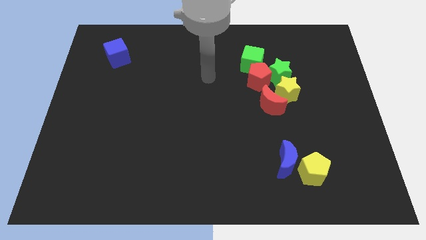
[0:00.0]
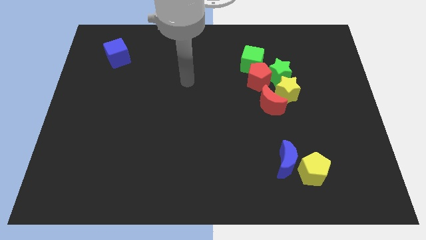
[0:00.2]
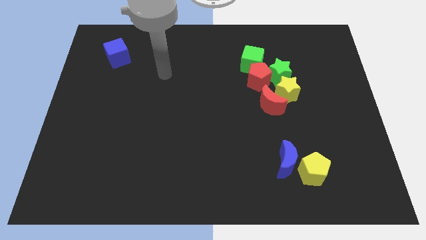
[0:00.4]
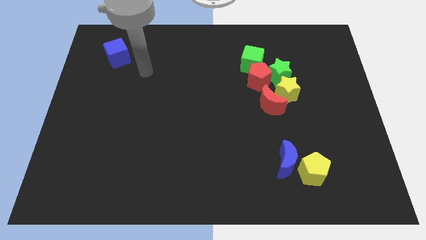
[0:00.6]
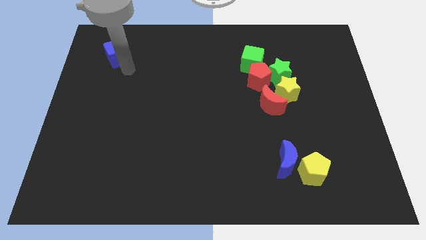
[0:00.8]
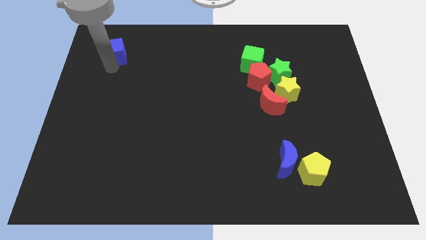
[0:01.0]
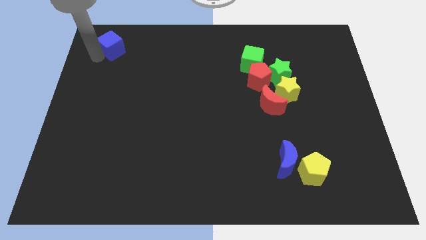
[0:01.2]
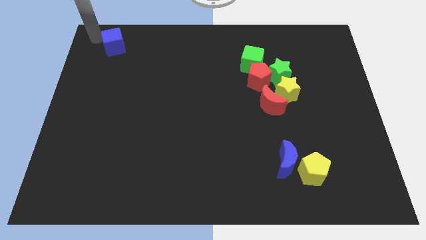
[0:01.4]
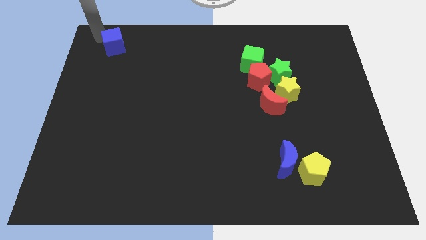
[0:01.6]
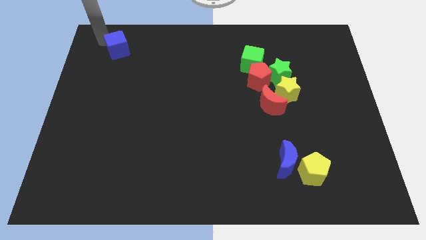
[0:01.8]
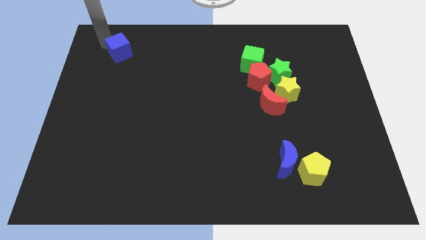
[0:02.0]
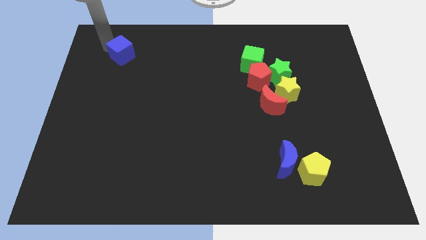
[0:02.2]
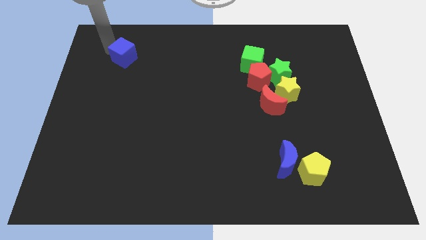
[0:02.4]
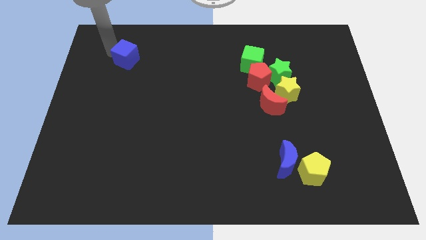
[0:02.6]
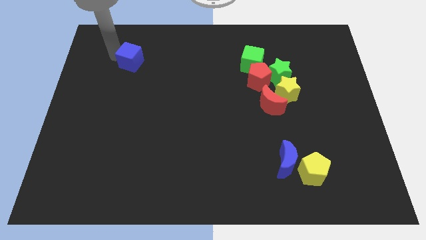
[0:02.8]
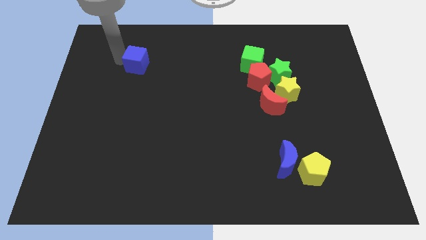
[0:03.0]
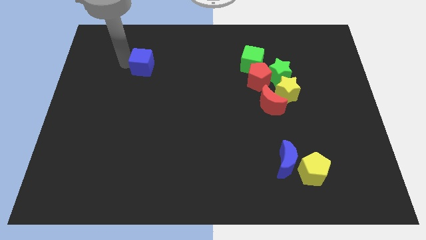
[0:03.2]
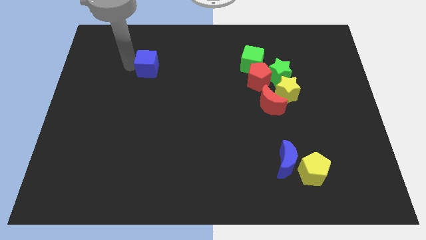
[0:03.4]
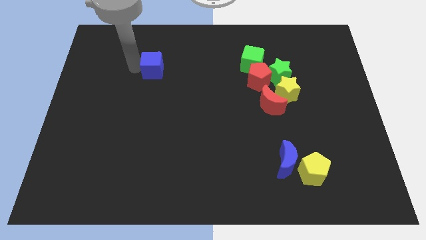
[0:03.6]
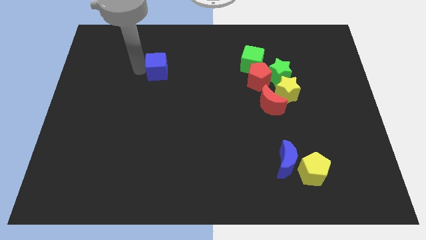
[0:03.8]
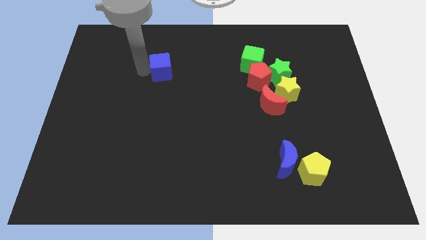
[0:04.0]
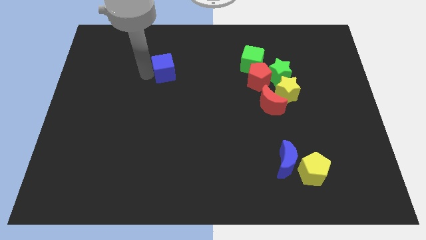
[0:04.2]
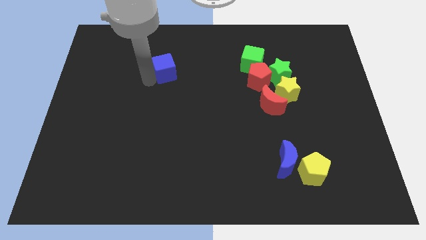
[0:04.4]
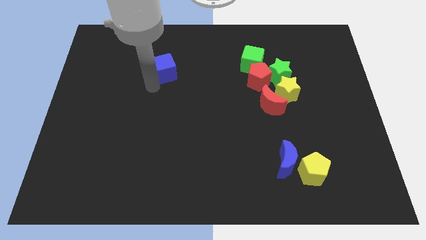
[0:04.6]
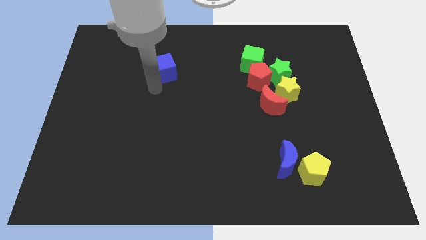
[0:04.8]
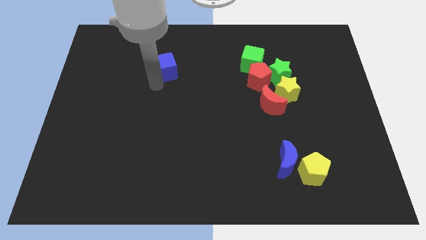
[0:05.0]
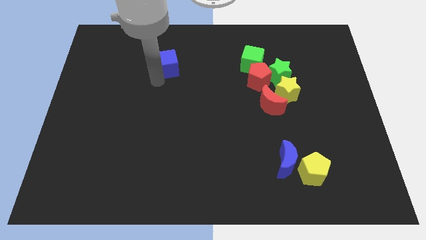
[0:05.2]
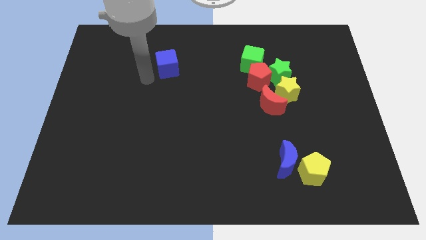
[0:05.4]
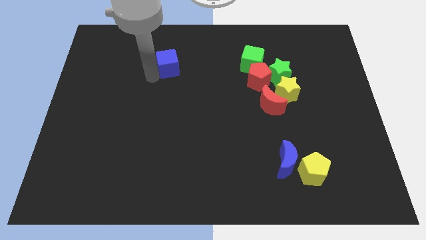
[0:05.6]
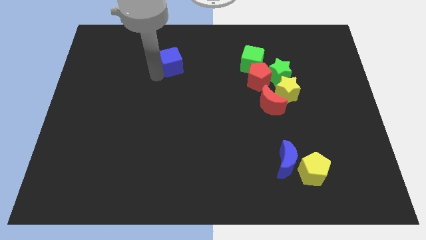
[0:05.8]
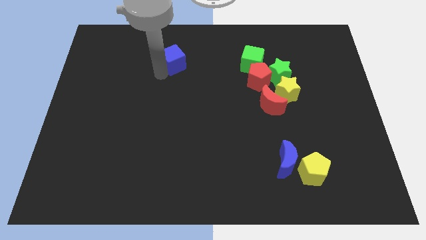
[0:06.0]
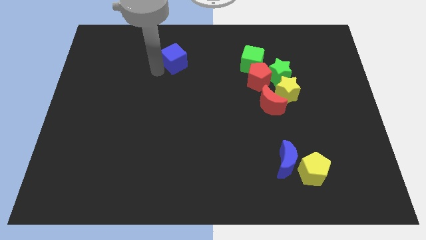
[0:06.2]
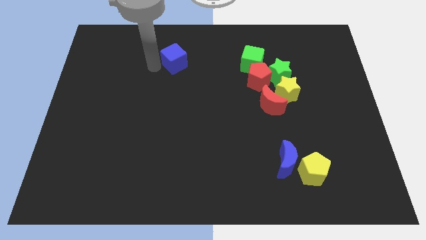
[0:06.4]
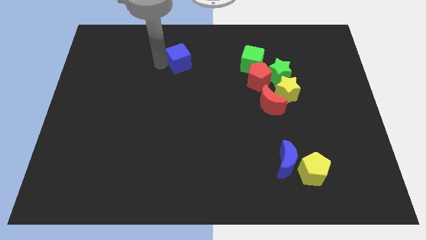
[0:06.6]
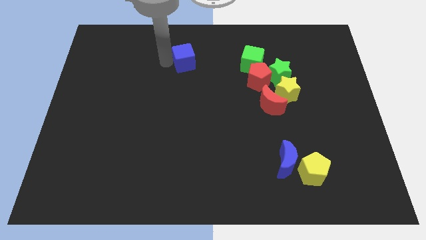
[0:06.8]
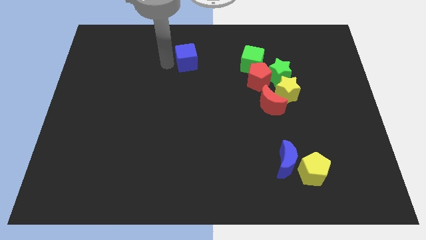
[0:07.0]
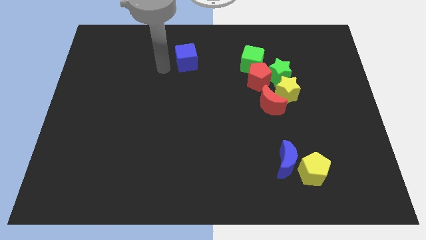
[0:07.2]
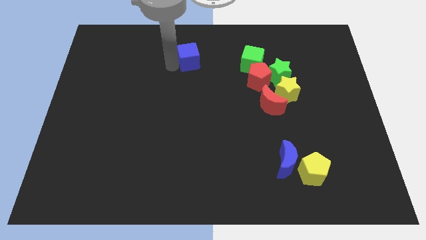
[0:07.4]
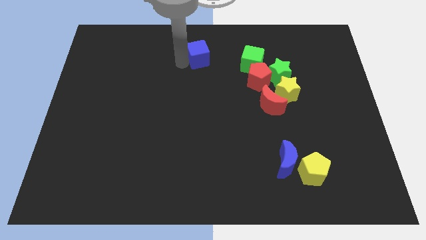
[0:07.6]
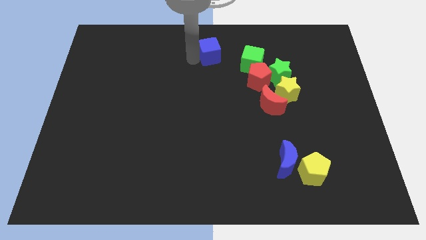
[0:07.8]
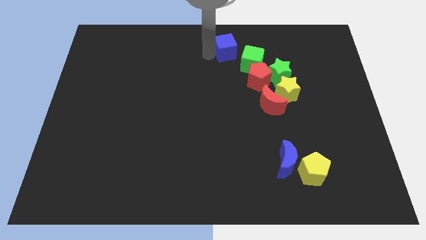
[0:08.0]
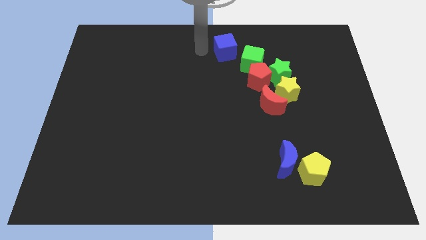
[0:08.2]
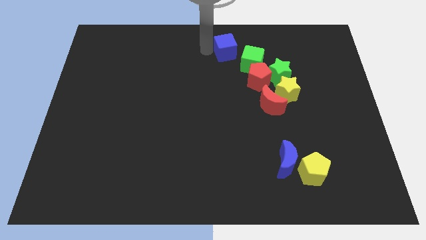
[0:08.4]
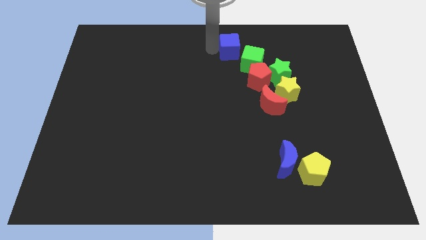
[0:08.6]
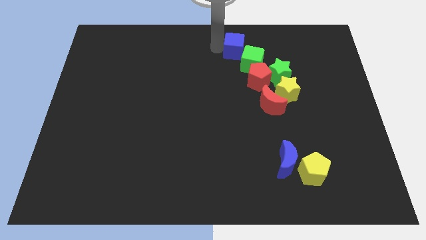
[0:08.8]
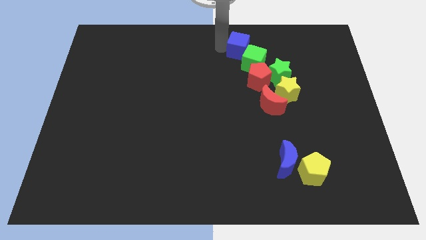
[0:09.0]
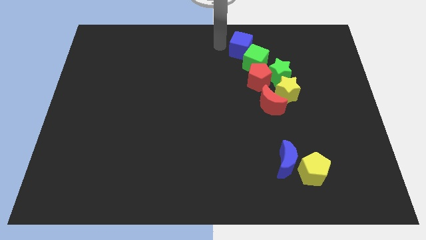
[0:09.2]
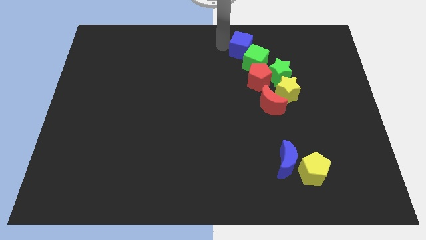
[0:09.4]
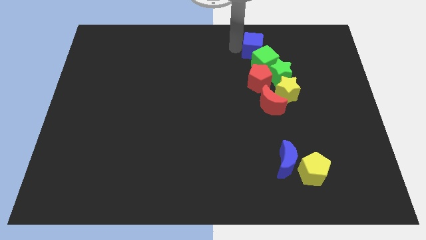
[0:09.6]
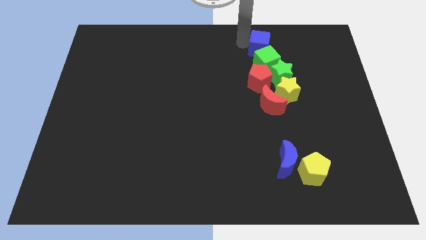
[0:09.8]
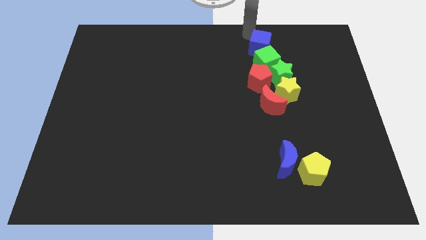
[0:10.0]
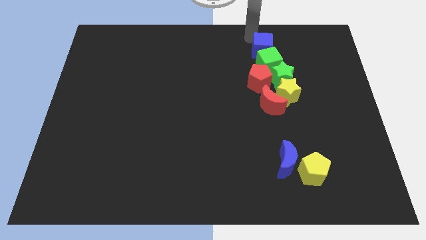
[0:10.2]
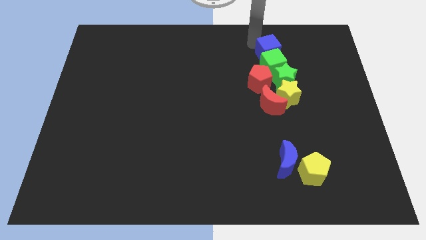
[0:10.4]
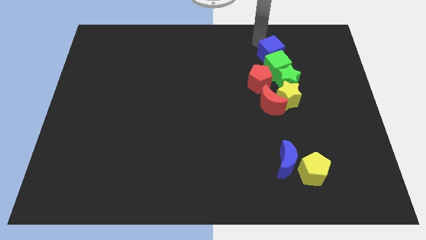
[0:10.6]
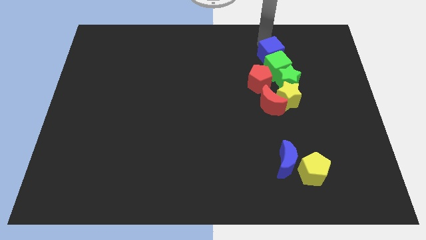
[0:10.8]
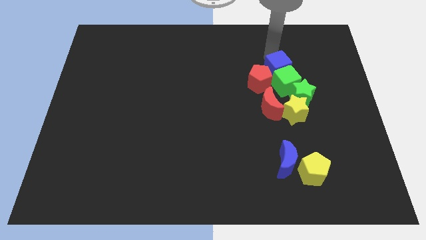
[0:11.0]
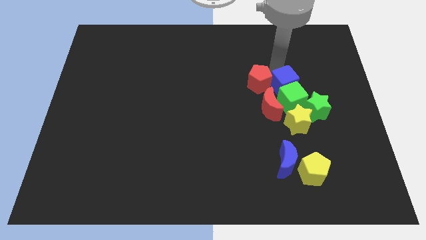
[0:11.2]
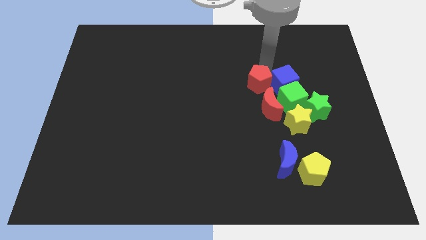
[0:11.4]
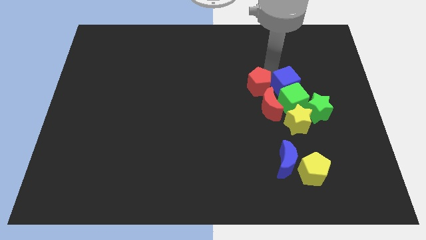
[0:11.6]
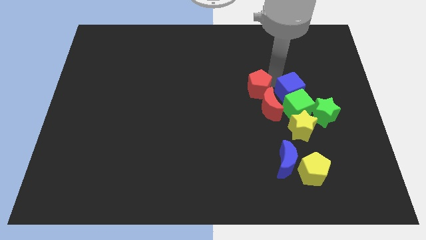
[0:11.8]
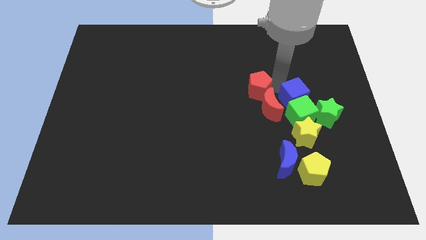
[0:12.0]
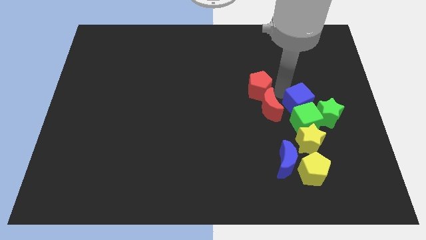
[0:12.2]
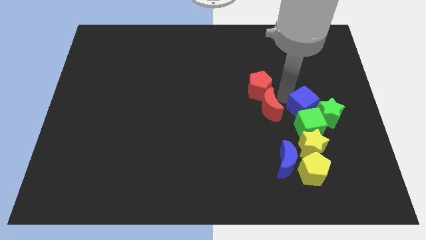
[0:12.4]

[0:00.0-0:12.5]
slide the blue cube next to the green star

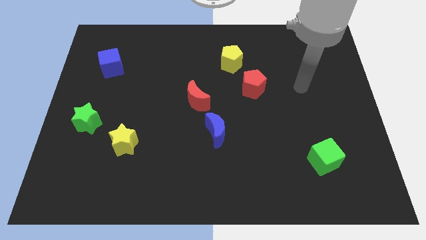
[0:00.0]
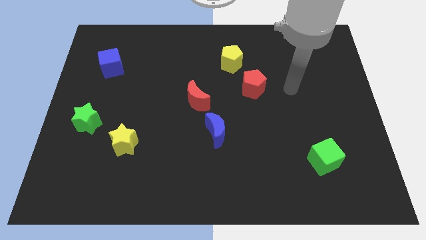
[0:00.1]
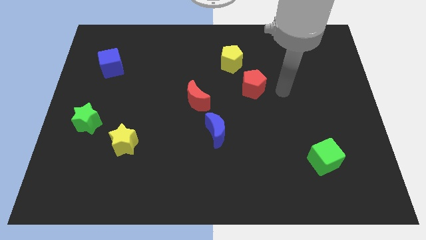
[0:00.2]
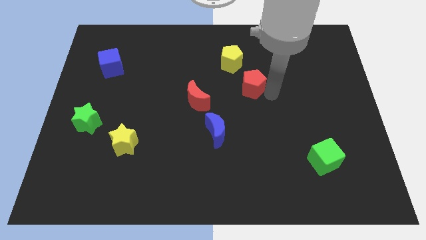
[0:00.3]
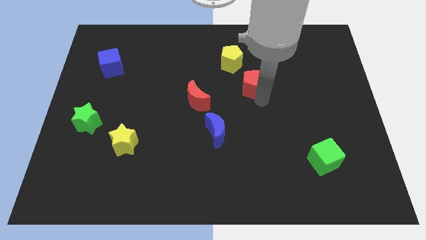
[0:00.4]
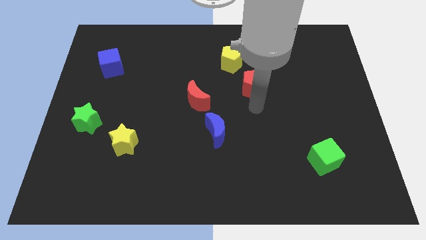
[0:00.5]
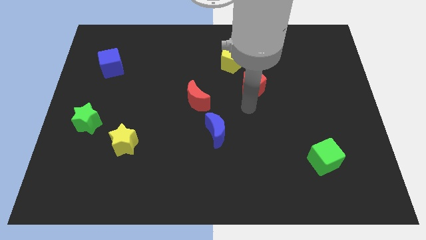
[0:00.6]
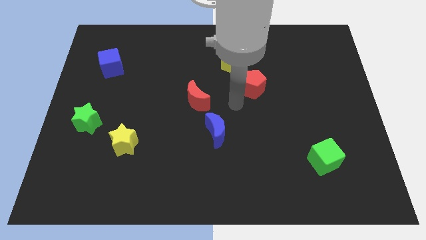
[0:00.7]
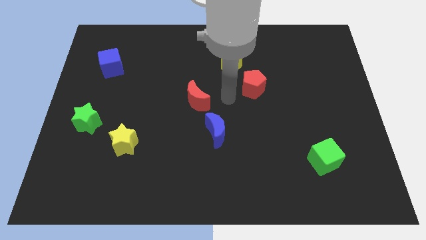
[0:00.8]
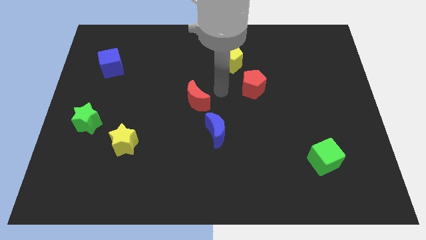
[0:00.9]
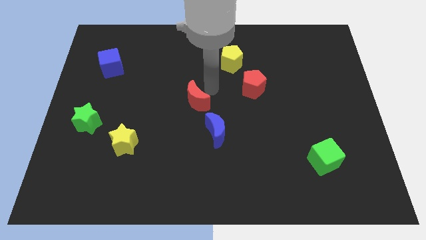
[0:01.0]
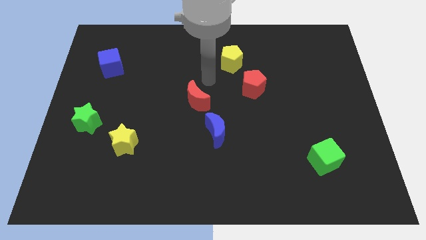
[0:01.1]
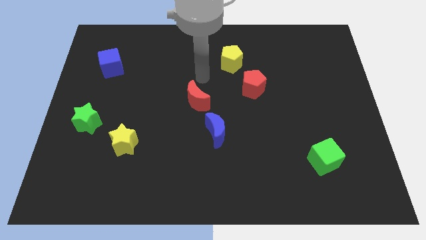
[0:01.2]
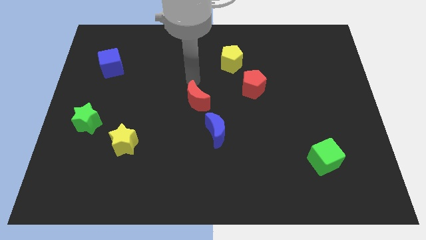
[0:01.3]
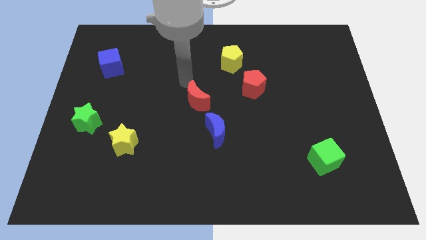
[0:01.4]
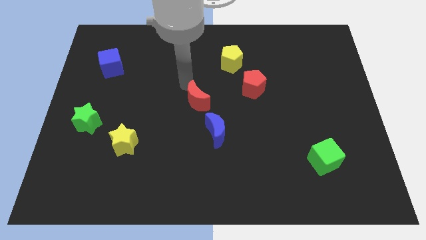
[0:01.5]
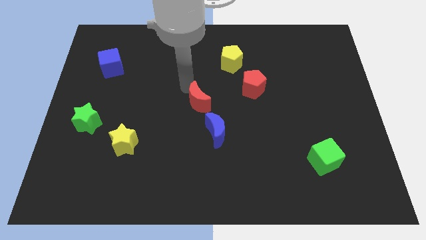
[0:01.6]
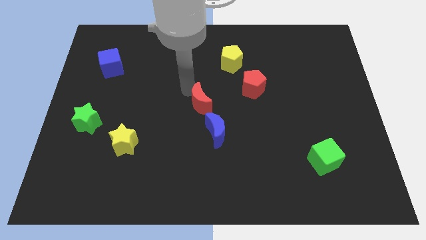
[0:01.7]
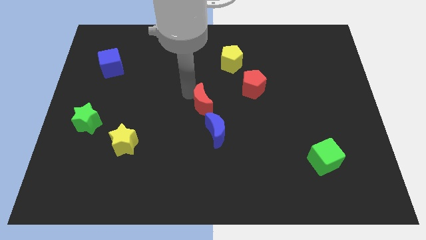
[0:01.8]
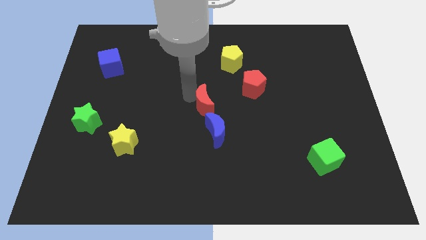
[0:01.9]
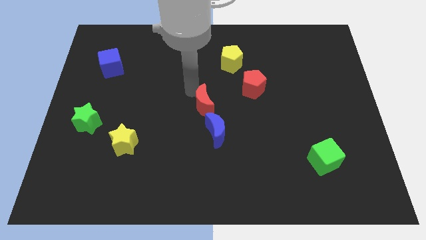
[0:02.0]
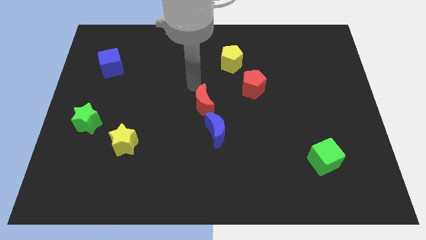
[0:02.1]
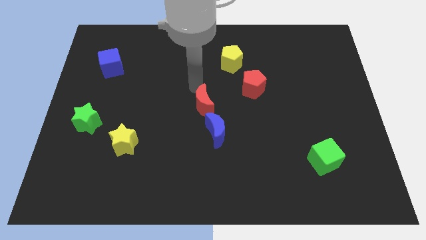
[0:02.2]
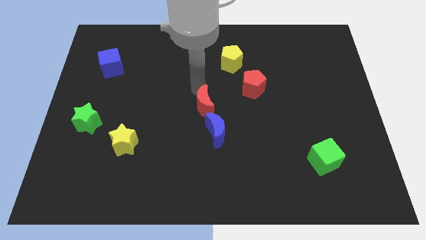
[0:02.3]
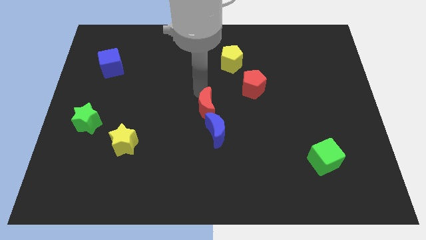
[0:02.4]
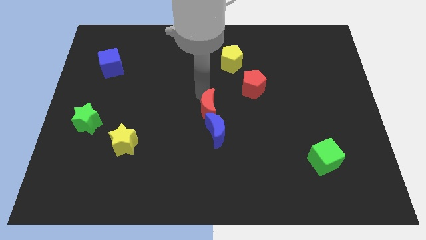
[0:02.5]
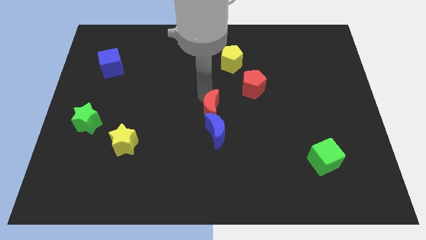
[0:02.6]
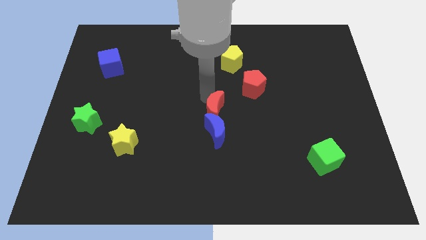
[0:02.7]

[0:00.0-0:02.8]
push the red moon to the blue moon
